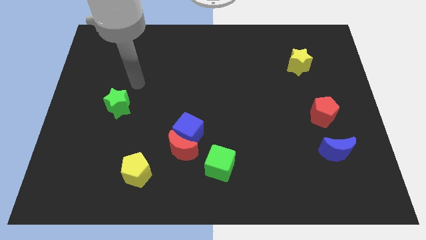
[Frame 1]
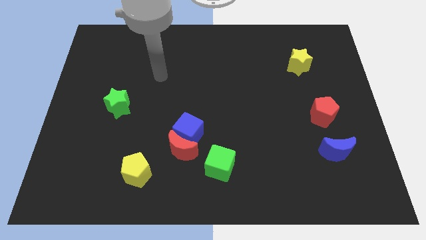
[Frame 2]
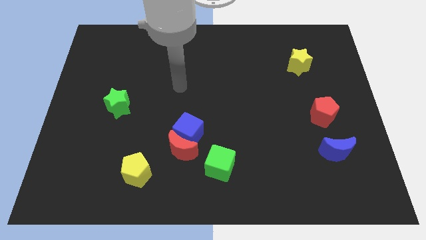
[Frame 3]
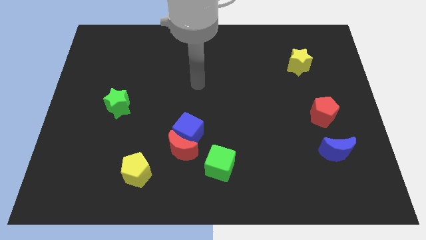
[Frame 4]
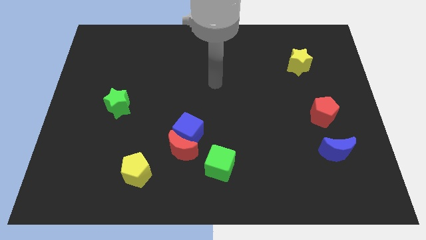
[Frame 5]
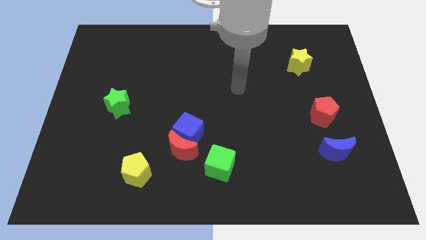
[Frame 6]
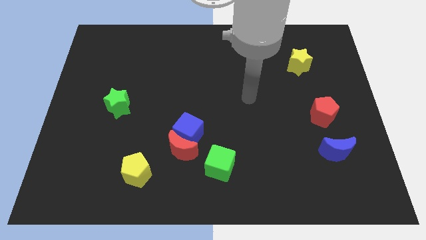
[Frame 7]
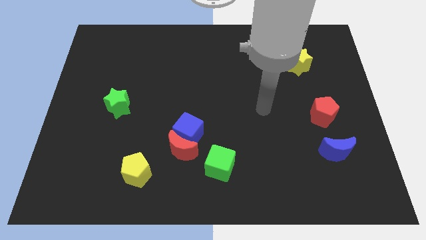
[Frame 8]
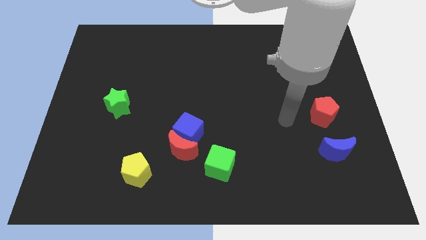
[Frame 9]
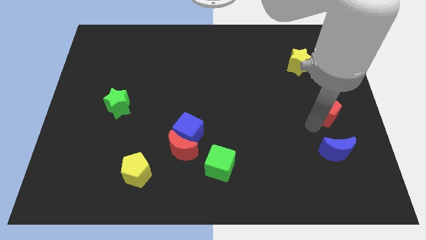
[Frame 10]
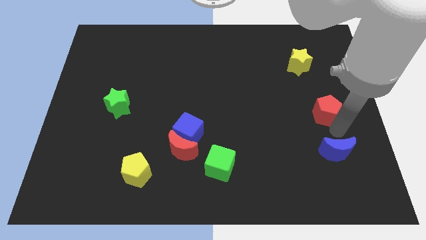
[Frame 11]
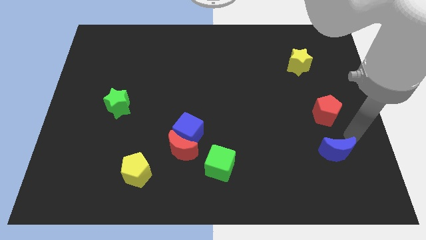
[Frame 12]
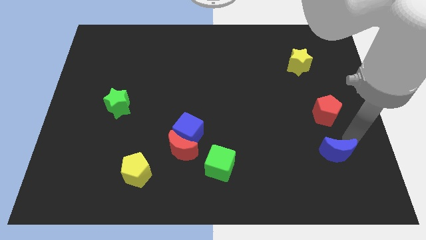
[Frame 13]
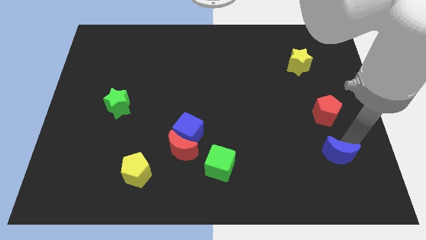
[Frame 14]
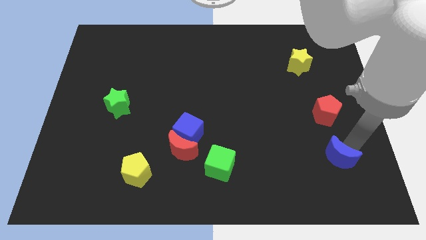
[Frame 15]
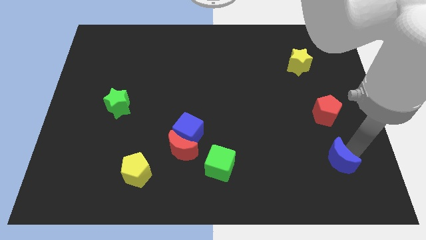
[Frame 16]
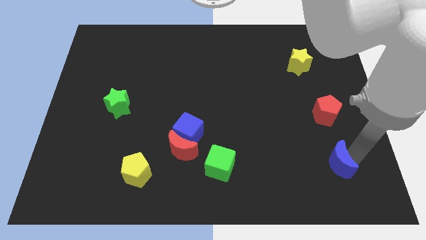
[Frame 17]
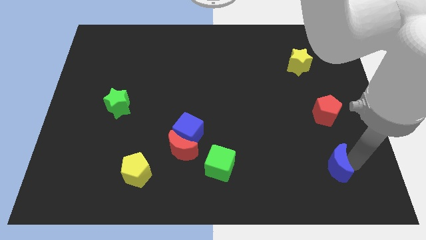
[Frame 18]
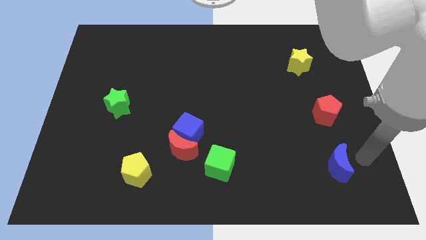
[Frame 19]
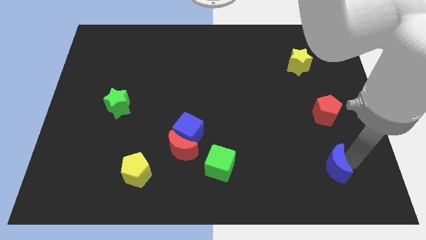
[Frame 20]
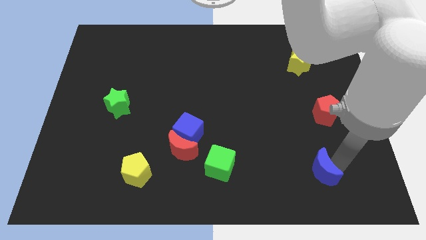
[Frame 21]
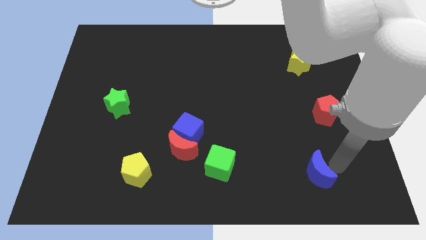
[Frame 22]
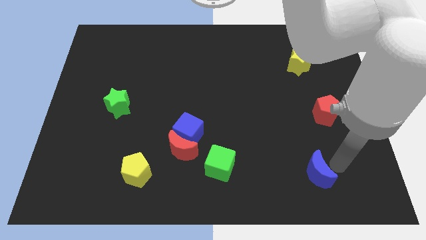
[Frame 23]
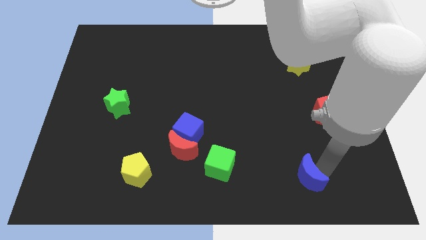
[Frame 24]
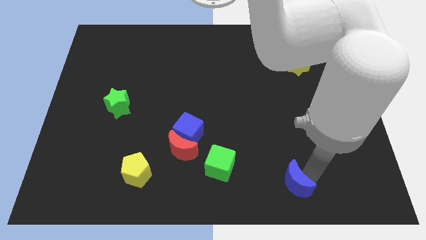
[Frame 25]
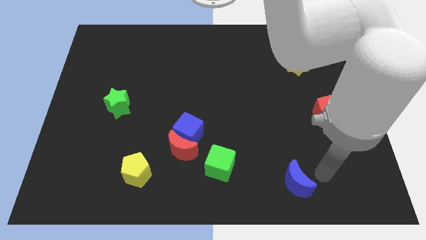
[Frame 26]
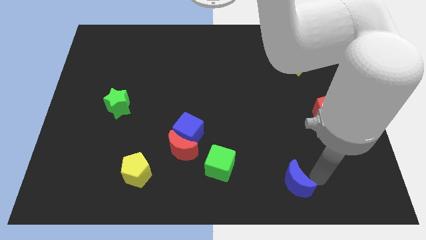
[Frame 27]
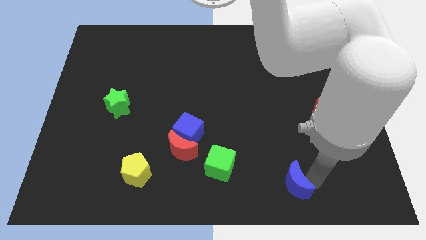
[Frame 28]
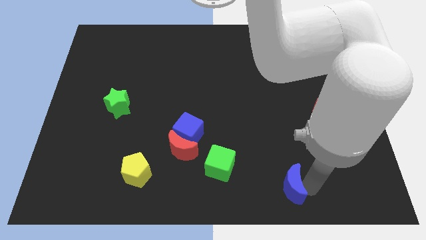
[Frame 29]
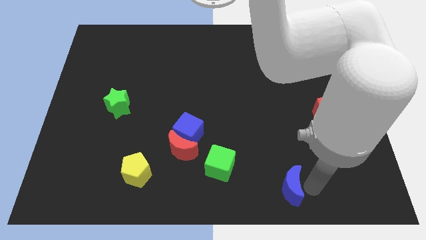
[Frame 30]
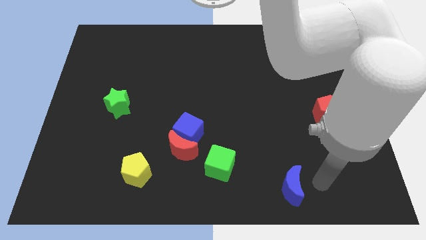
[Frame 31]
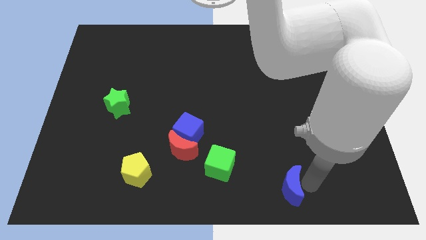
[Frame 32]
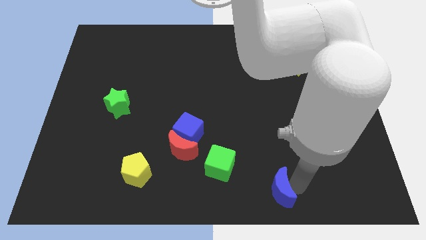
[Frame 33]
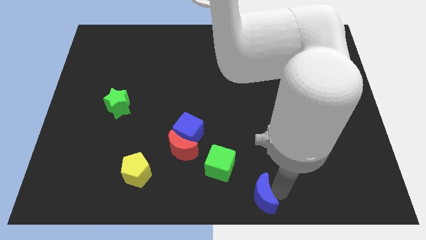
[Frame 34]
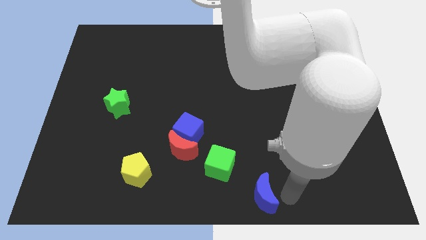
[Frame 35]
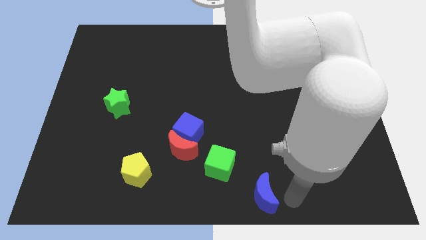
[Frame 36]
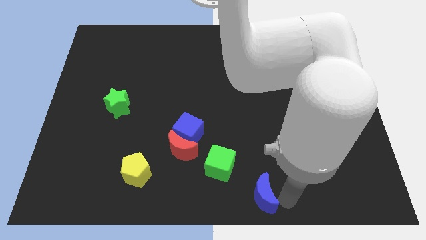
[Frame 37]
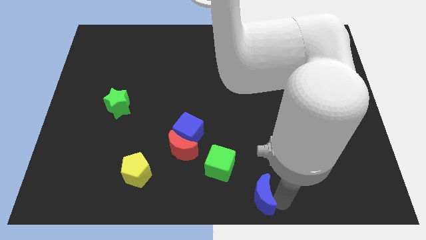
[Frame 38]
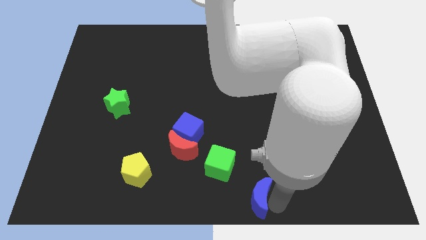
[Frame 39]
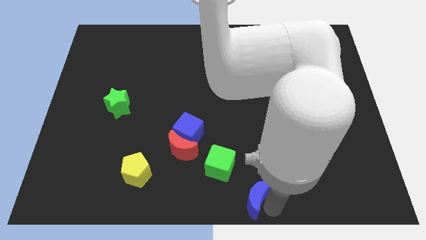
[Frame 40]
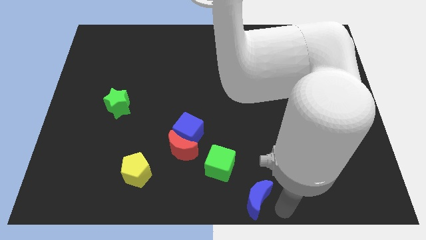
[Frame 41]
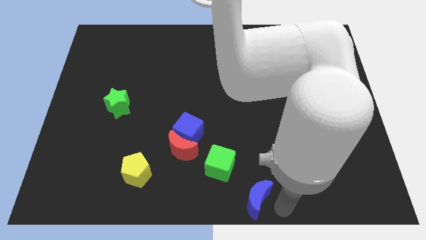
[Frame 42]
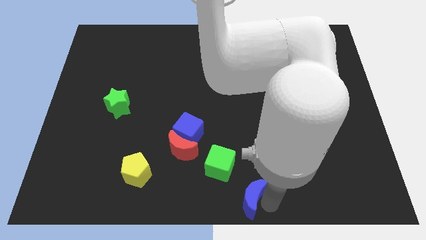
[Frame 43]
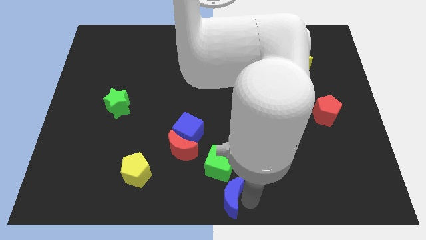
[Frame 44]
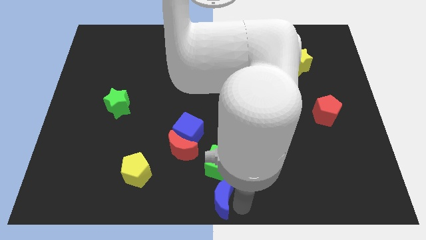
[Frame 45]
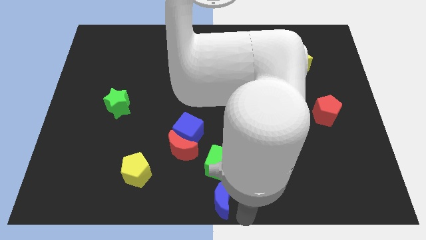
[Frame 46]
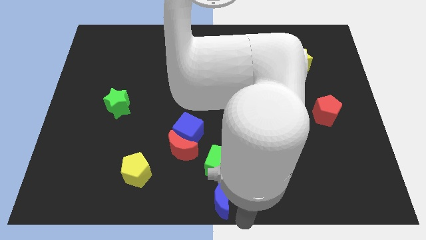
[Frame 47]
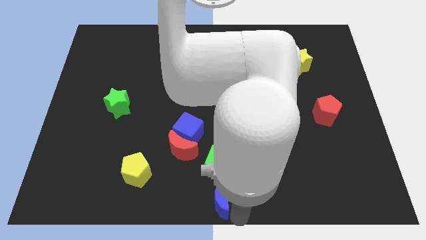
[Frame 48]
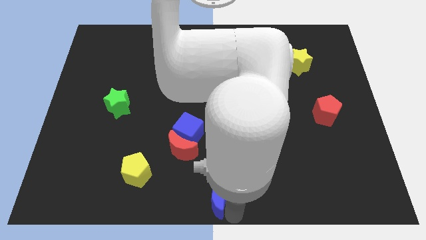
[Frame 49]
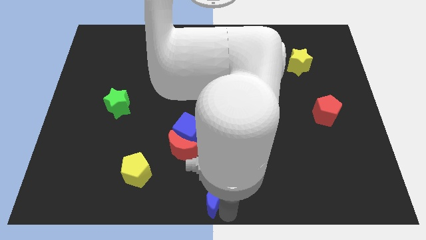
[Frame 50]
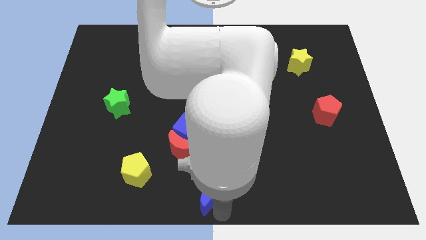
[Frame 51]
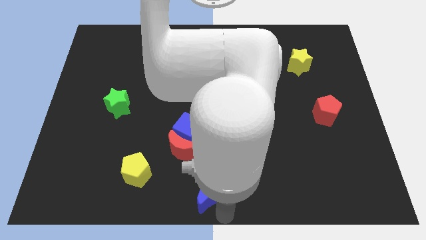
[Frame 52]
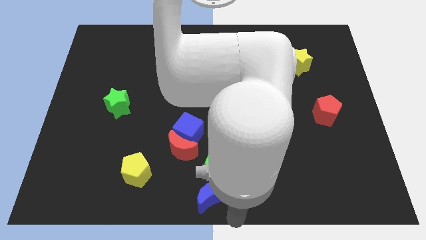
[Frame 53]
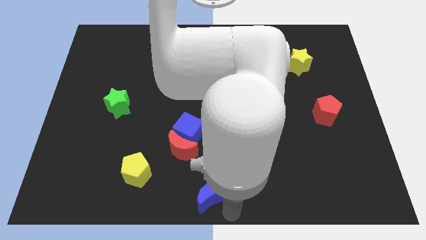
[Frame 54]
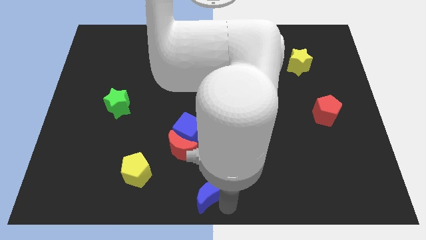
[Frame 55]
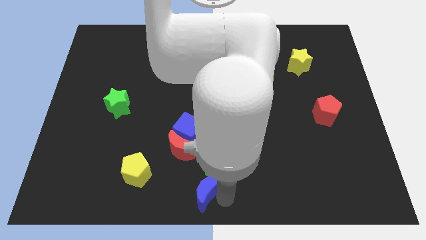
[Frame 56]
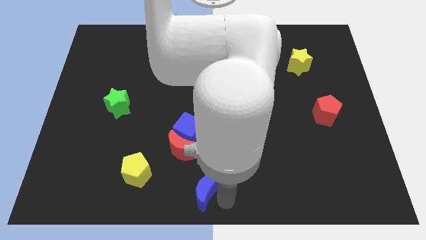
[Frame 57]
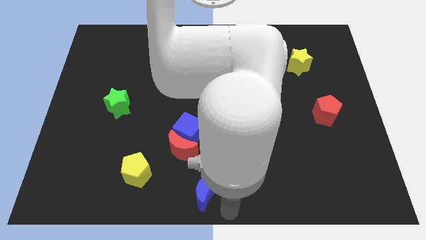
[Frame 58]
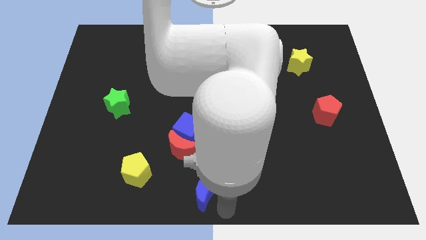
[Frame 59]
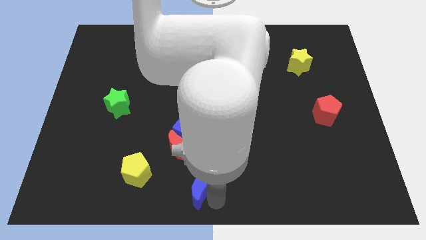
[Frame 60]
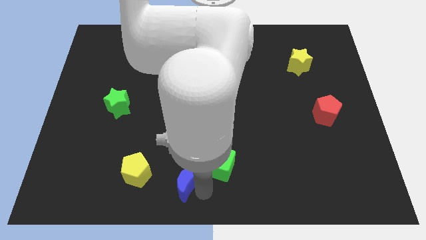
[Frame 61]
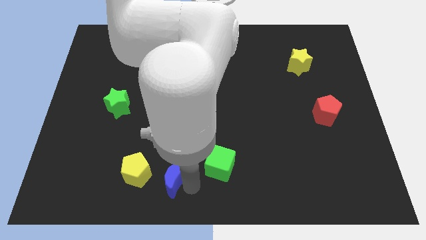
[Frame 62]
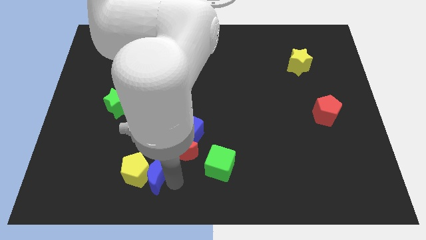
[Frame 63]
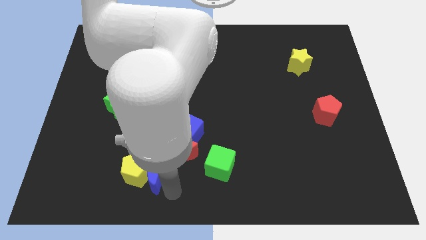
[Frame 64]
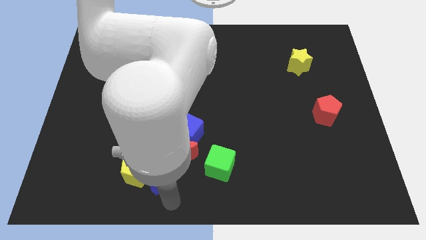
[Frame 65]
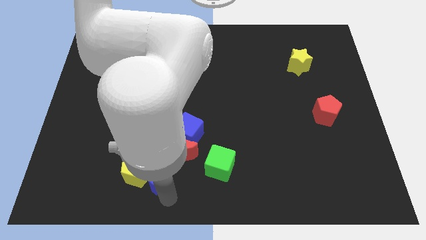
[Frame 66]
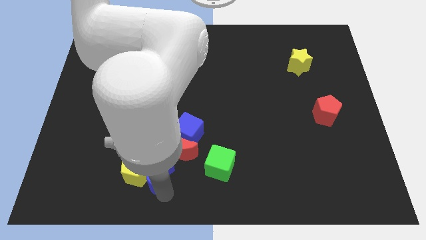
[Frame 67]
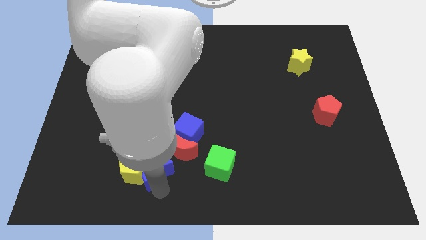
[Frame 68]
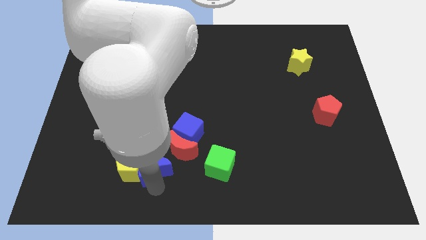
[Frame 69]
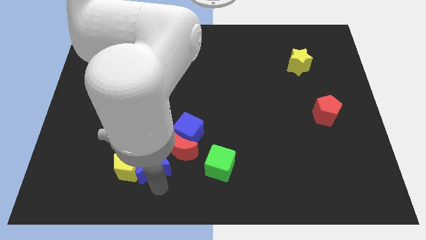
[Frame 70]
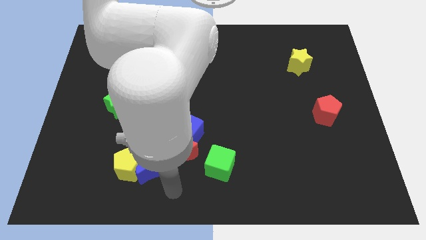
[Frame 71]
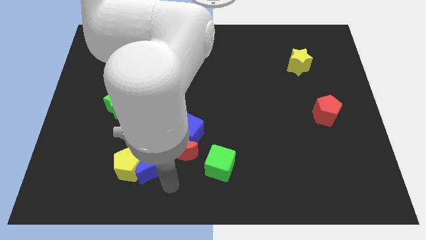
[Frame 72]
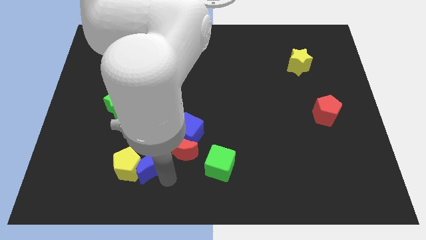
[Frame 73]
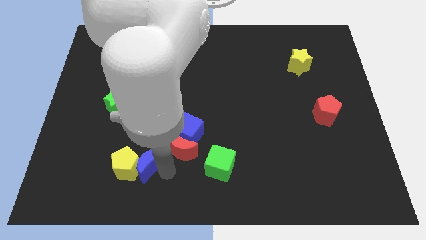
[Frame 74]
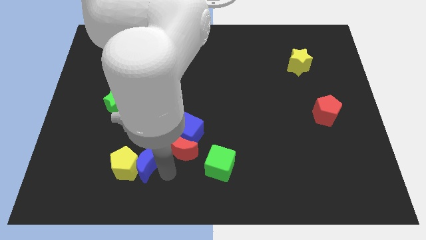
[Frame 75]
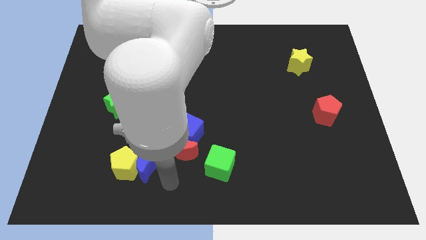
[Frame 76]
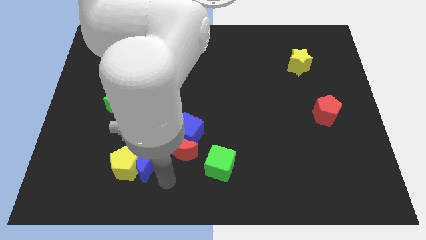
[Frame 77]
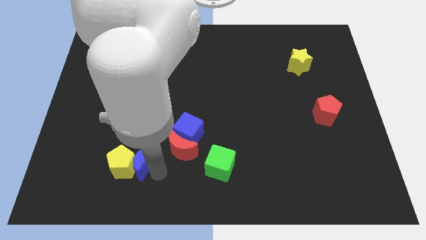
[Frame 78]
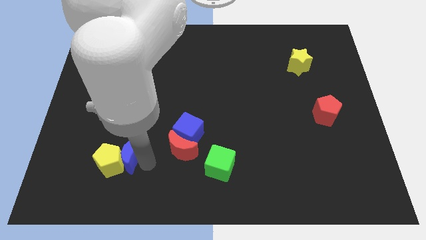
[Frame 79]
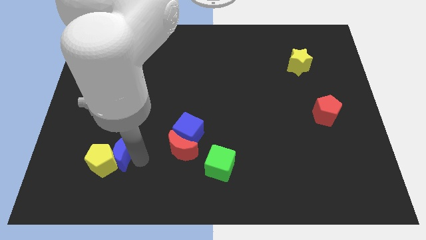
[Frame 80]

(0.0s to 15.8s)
put the blue moon to the bottom side of the green star
